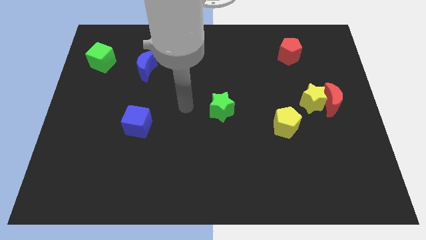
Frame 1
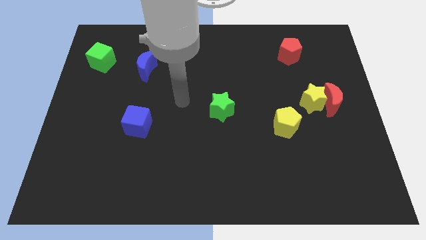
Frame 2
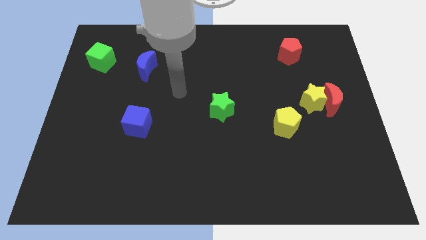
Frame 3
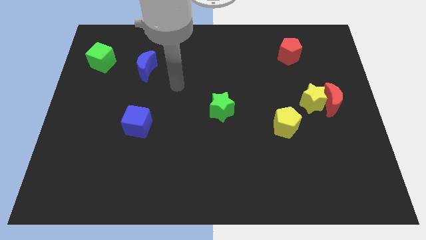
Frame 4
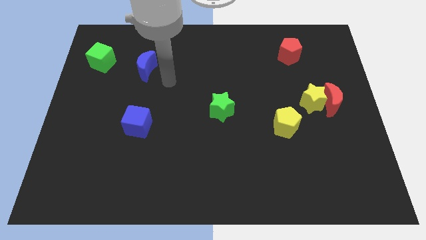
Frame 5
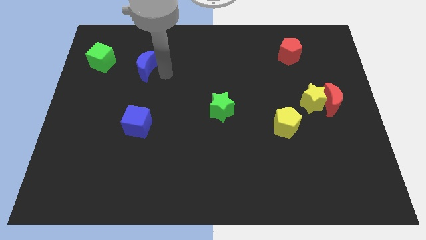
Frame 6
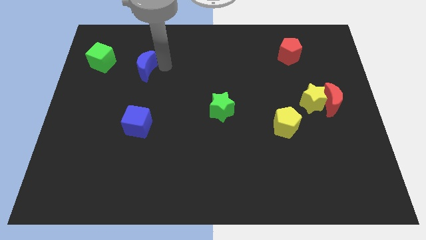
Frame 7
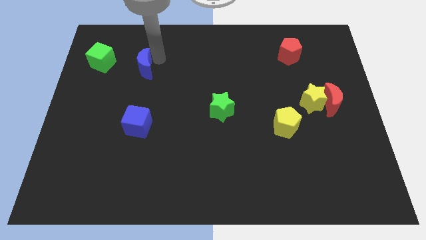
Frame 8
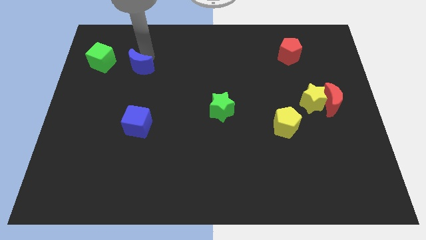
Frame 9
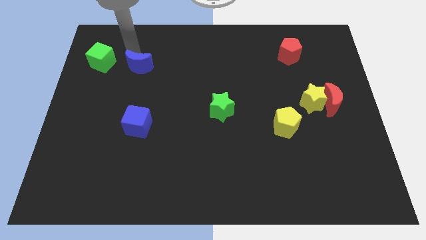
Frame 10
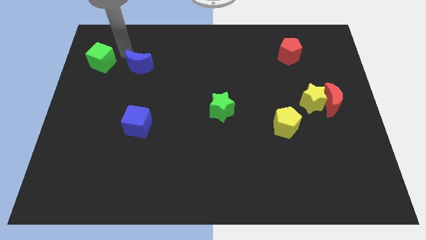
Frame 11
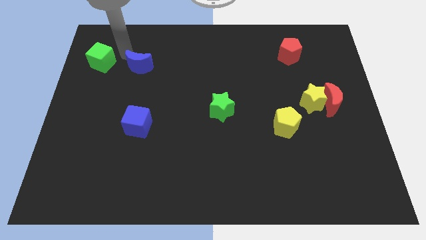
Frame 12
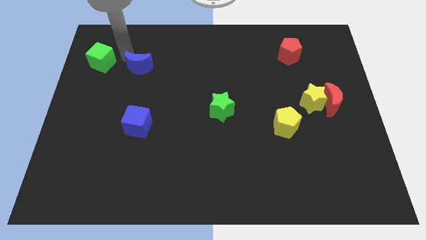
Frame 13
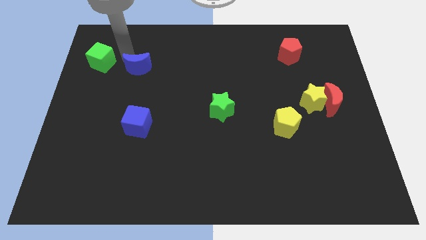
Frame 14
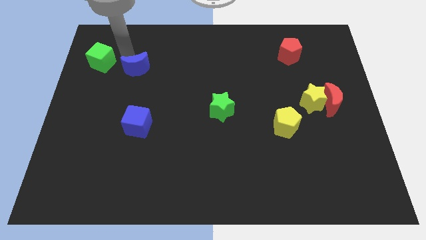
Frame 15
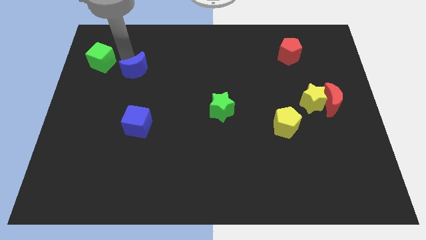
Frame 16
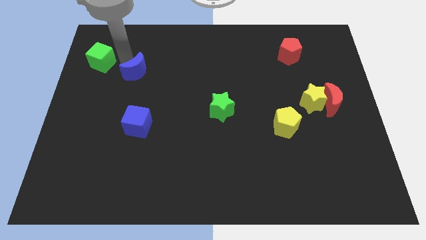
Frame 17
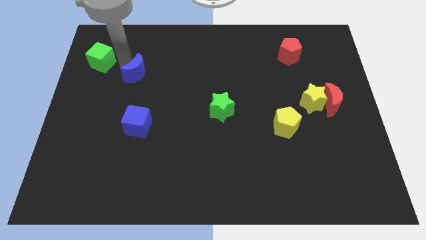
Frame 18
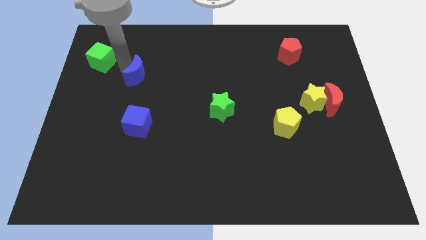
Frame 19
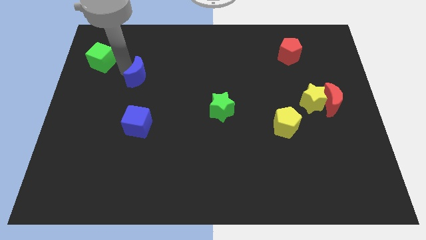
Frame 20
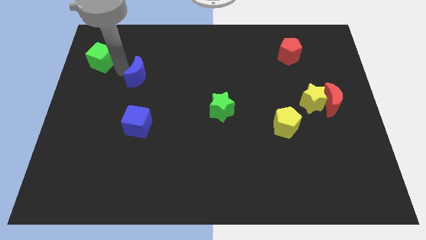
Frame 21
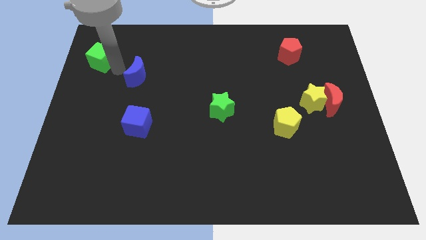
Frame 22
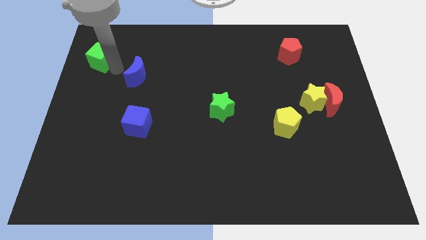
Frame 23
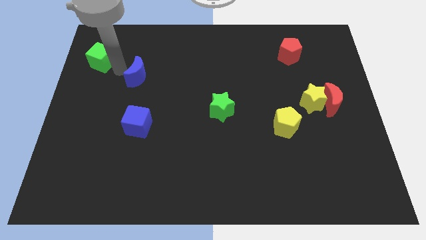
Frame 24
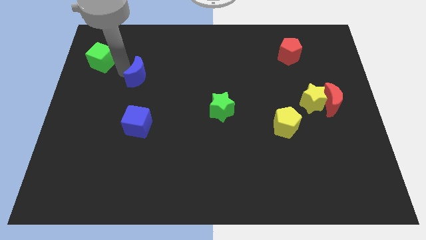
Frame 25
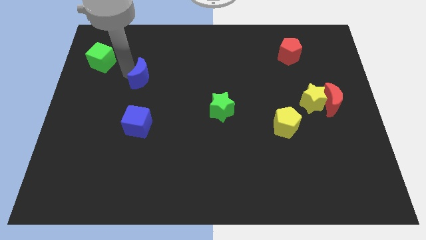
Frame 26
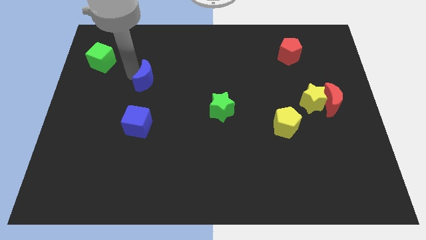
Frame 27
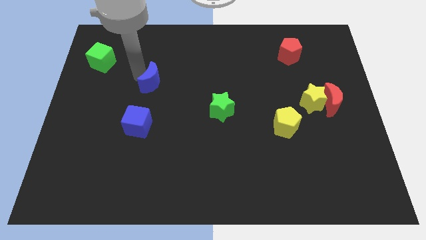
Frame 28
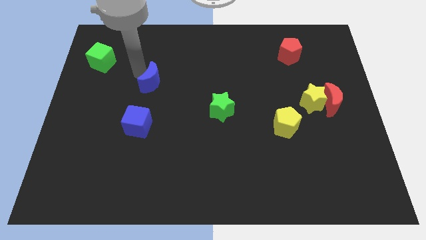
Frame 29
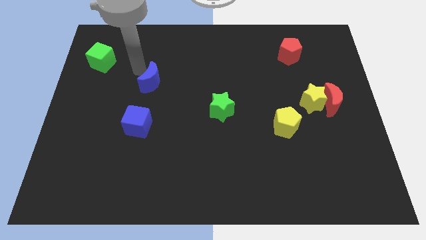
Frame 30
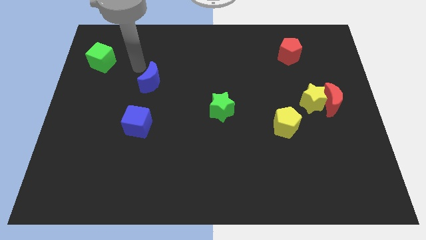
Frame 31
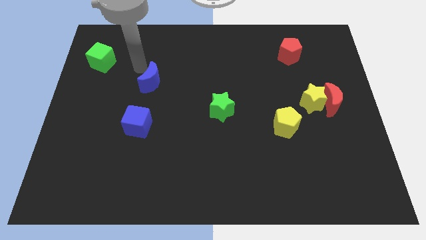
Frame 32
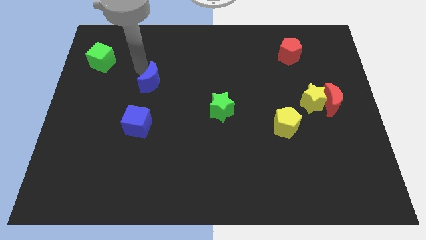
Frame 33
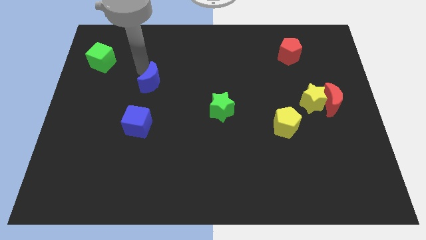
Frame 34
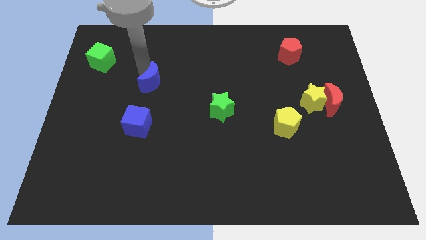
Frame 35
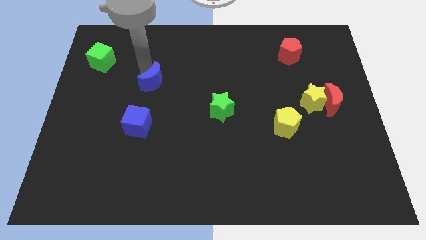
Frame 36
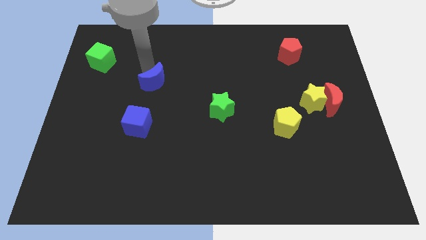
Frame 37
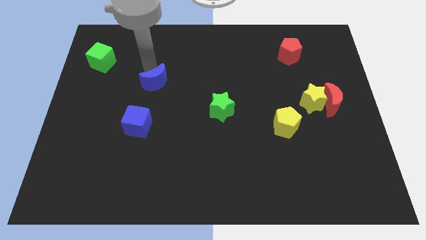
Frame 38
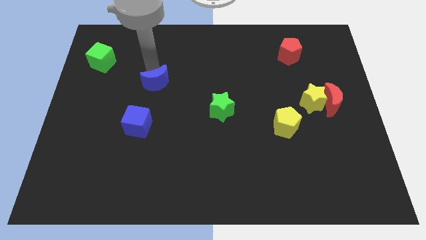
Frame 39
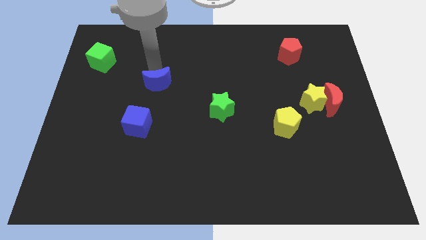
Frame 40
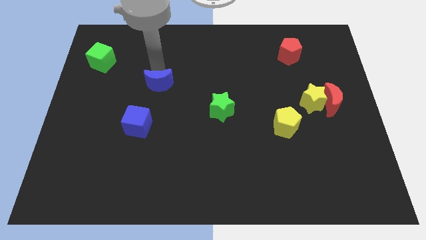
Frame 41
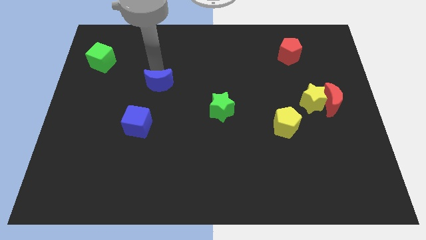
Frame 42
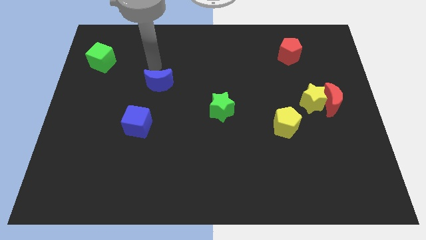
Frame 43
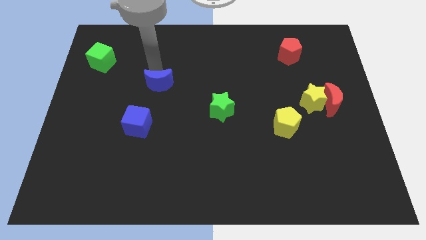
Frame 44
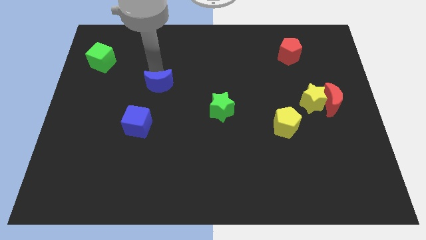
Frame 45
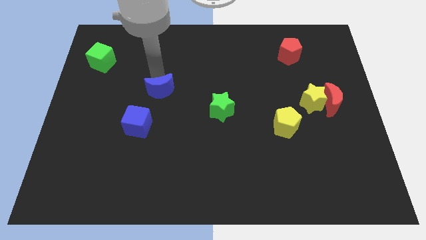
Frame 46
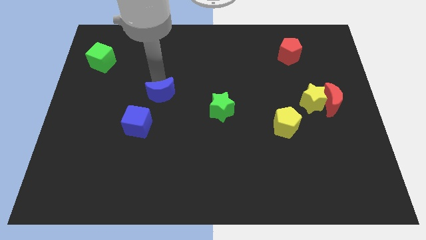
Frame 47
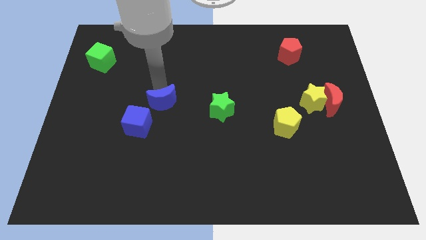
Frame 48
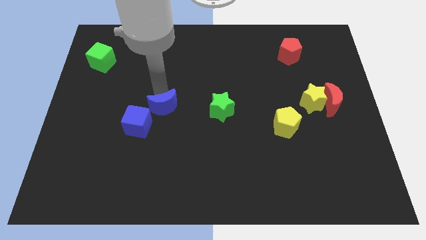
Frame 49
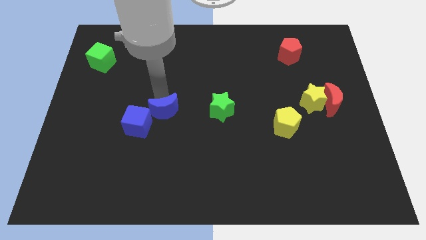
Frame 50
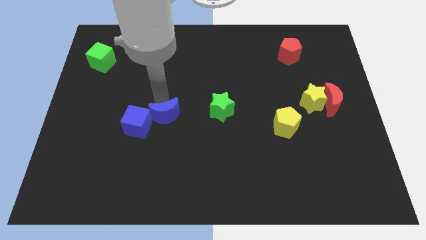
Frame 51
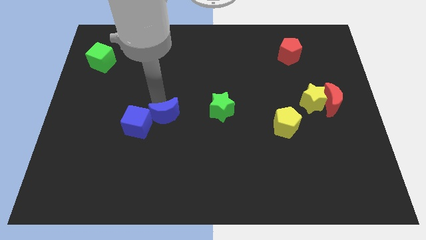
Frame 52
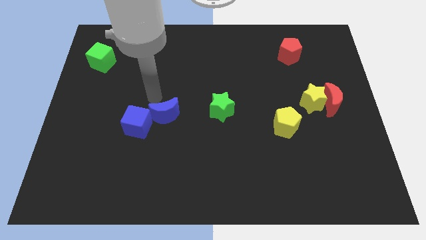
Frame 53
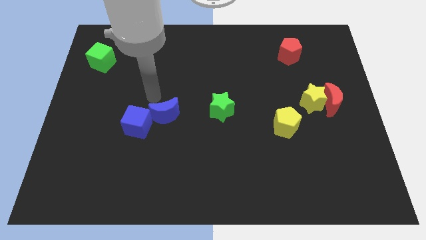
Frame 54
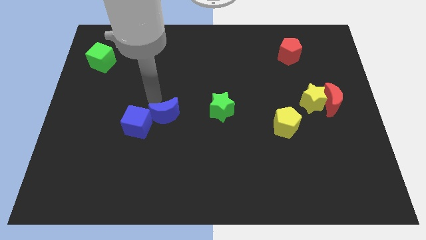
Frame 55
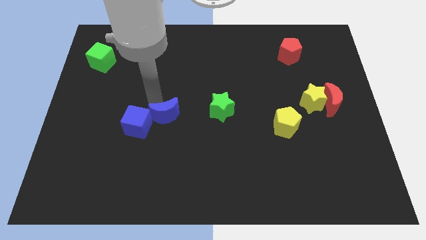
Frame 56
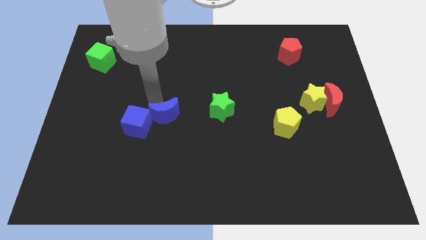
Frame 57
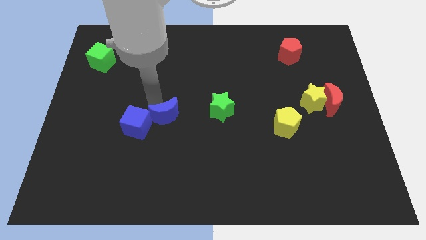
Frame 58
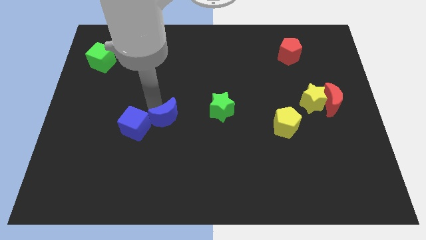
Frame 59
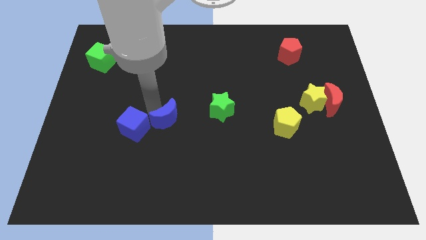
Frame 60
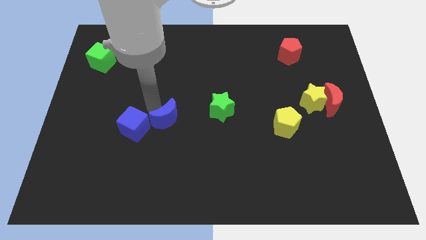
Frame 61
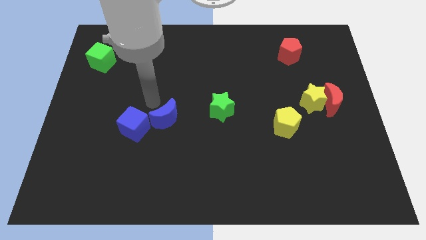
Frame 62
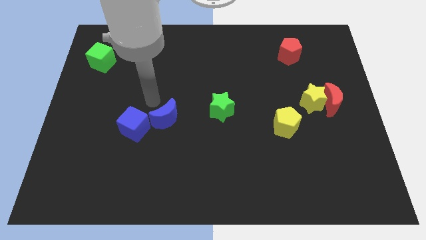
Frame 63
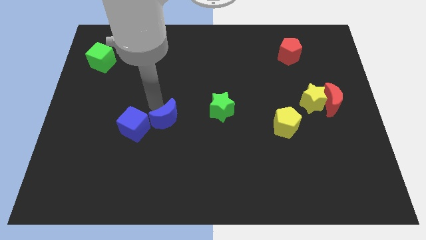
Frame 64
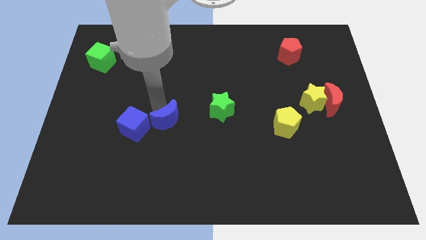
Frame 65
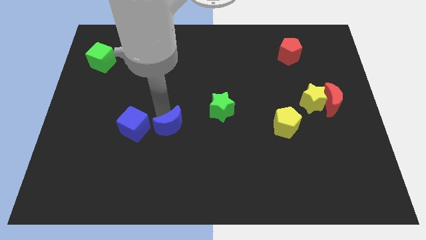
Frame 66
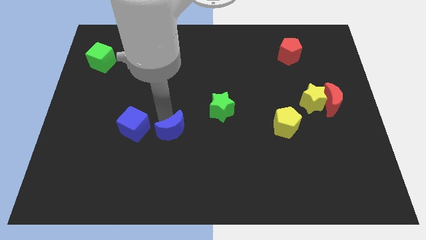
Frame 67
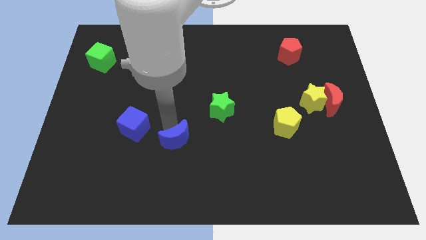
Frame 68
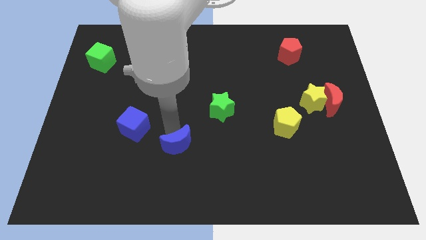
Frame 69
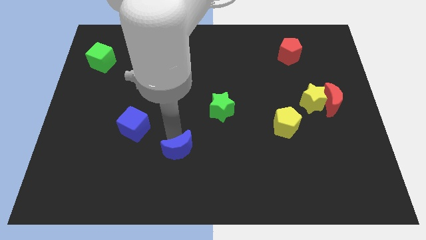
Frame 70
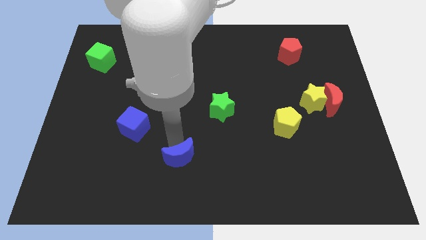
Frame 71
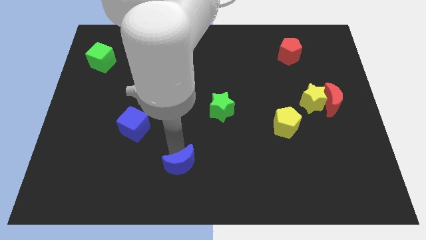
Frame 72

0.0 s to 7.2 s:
slide the blue moon to the bottom side
